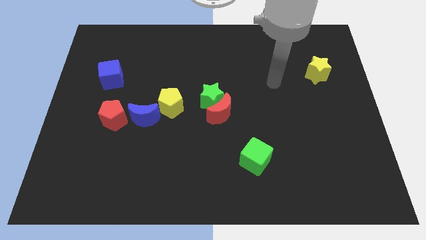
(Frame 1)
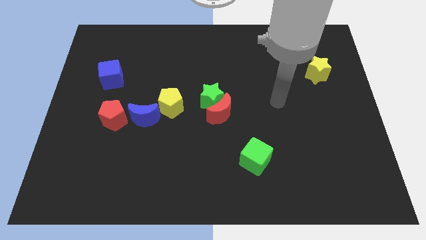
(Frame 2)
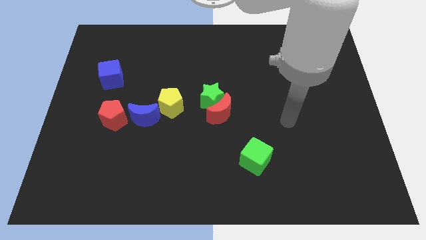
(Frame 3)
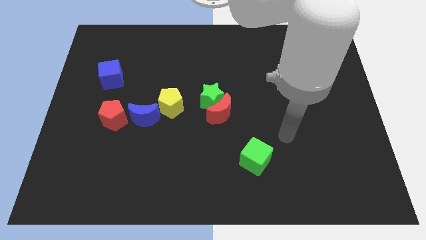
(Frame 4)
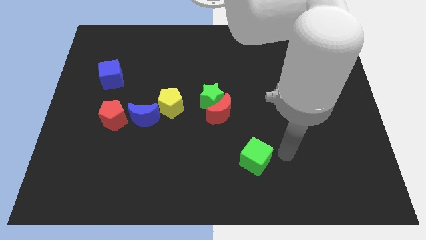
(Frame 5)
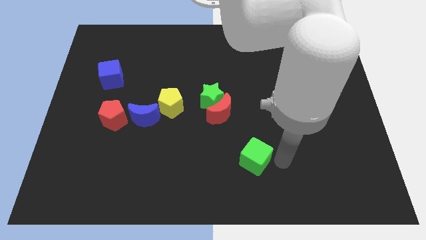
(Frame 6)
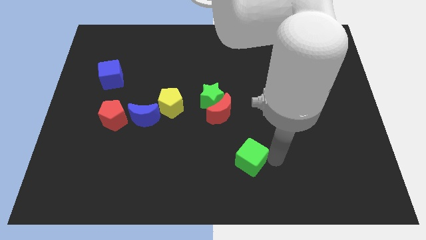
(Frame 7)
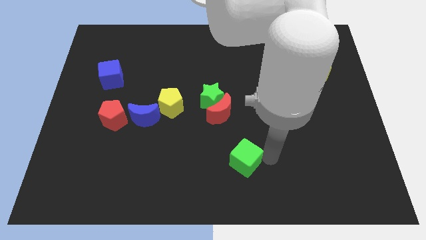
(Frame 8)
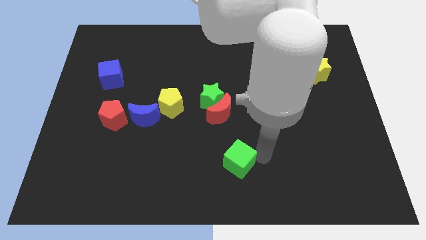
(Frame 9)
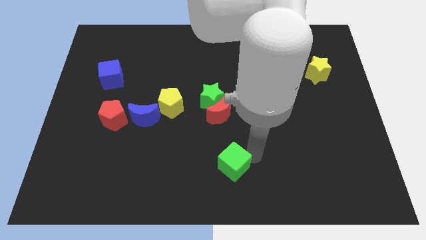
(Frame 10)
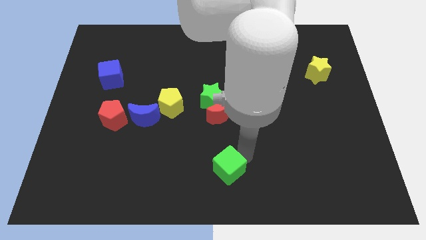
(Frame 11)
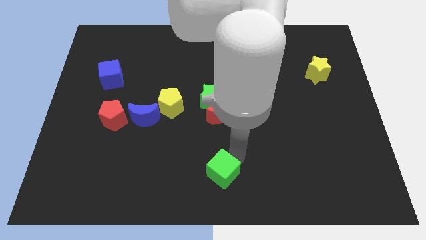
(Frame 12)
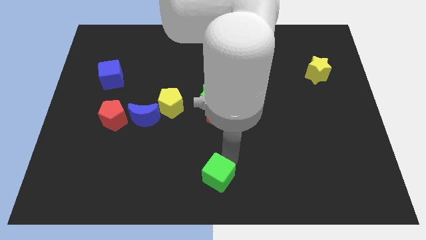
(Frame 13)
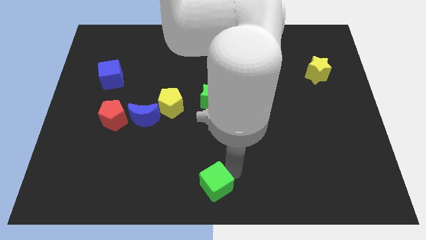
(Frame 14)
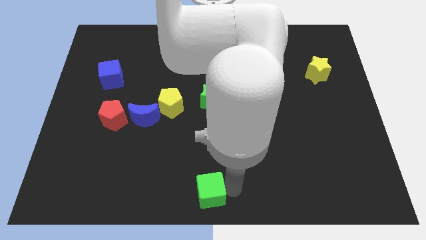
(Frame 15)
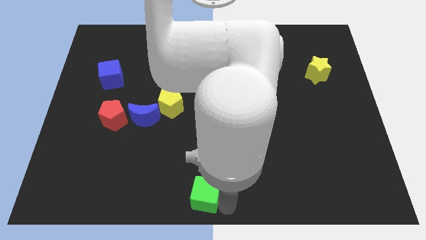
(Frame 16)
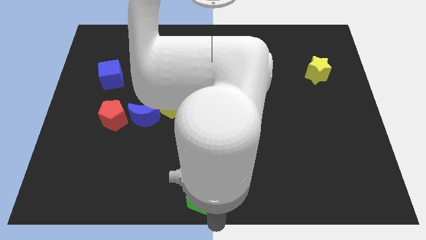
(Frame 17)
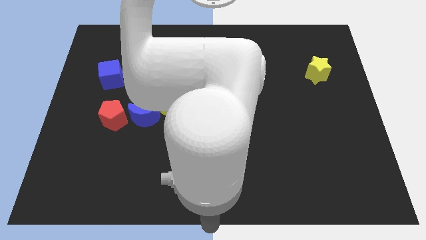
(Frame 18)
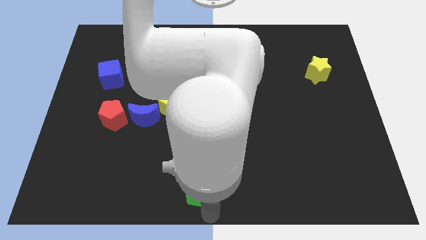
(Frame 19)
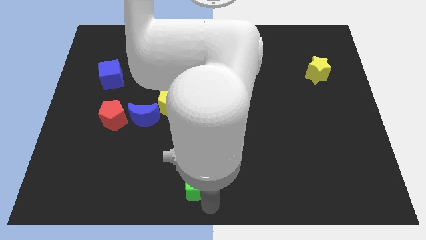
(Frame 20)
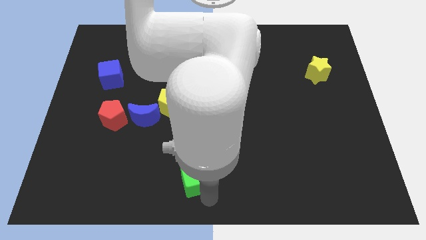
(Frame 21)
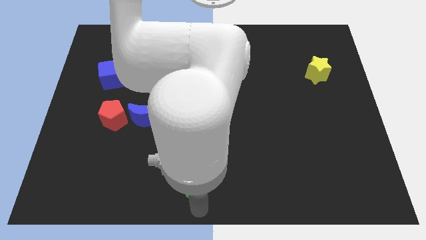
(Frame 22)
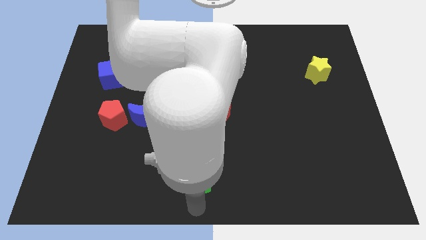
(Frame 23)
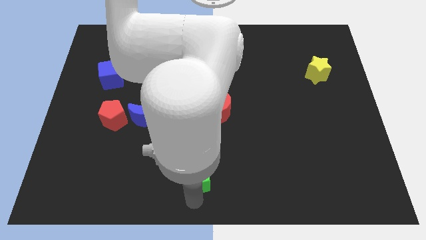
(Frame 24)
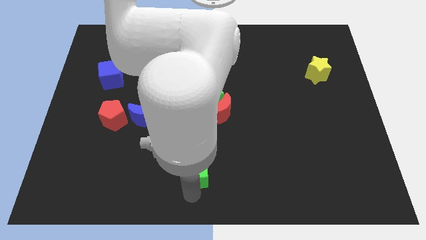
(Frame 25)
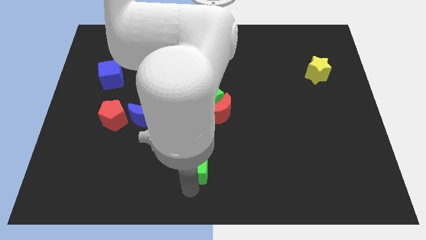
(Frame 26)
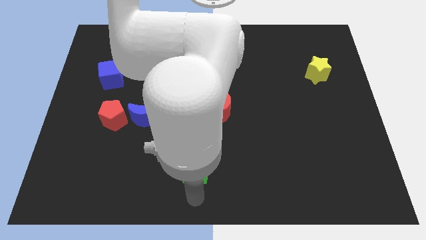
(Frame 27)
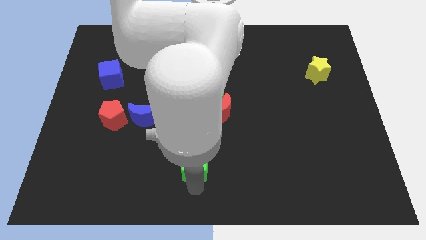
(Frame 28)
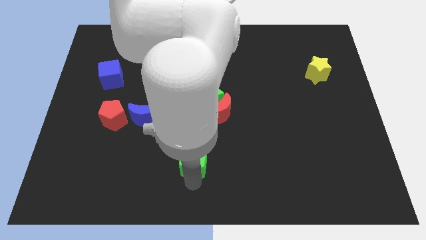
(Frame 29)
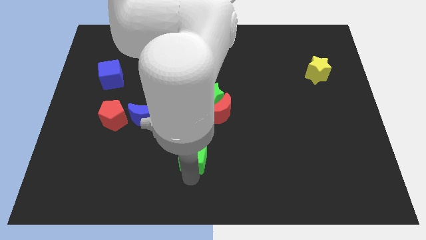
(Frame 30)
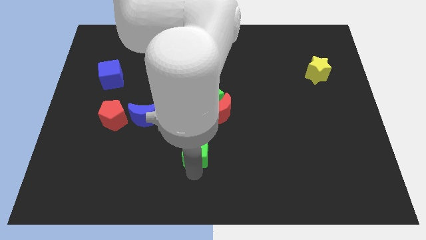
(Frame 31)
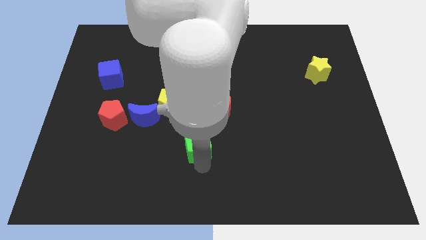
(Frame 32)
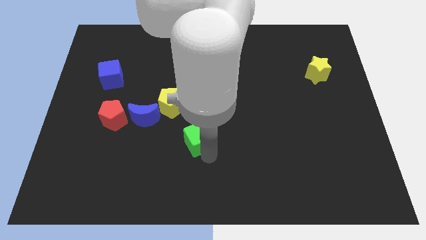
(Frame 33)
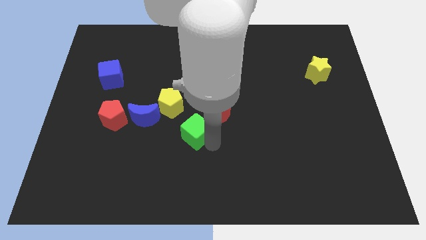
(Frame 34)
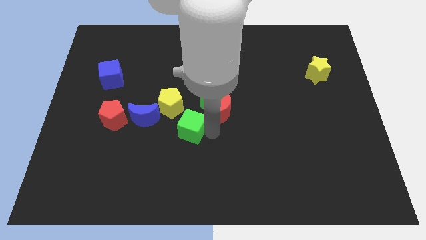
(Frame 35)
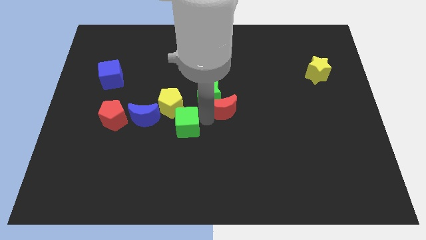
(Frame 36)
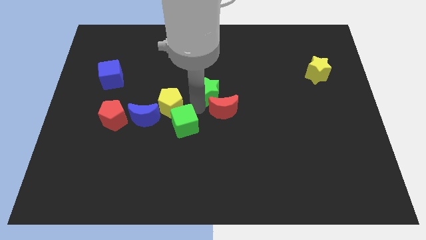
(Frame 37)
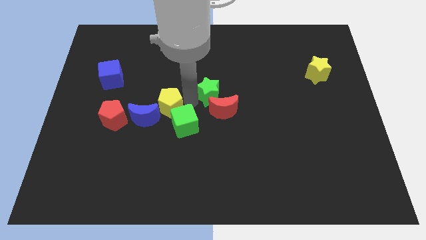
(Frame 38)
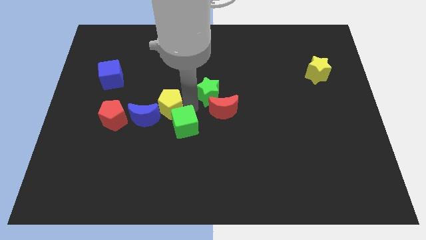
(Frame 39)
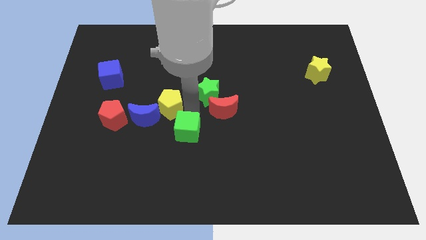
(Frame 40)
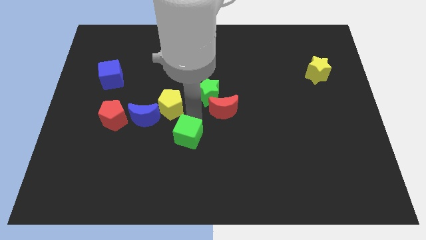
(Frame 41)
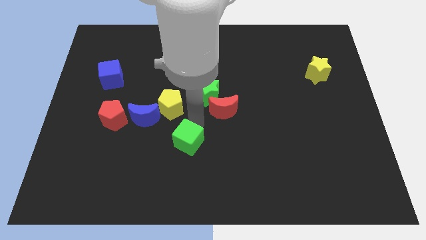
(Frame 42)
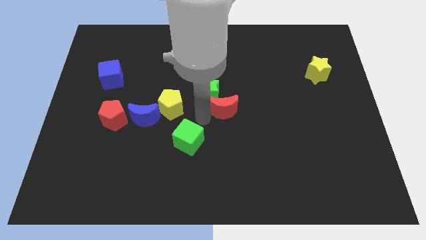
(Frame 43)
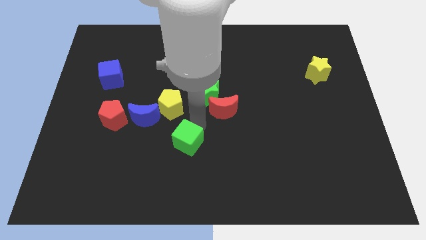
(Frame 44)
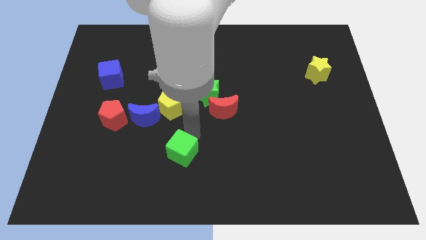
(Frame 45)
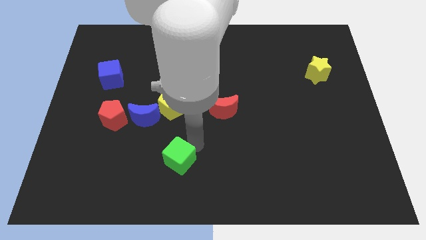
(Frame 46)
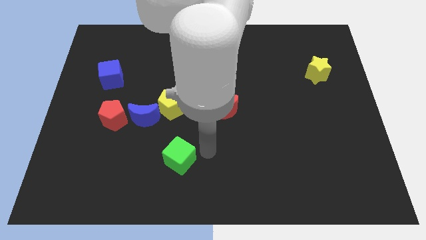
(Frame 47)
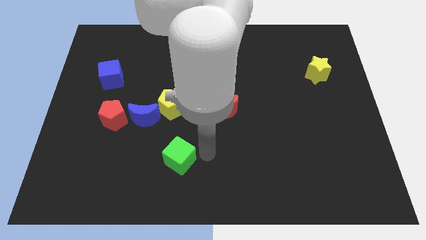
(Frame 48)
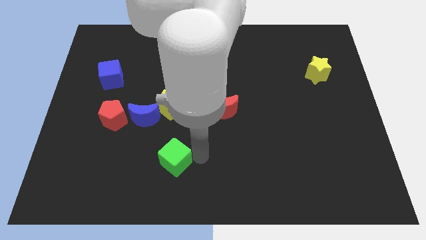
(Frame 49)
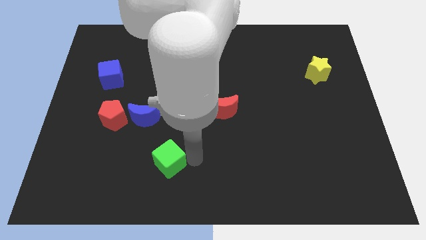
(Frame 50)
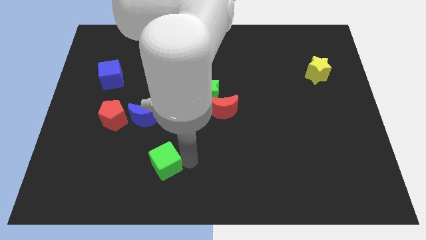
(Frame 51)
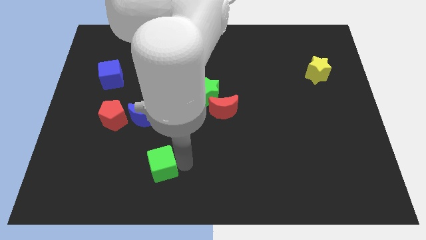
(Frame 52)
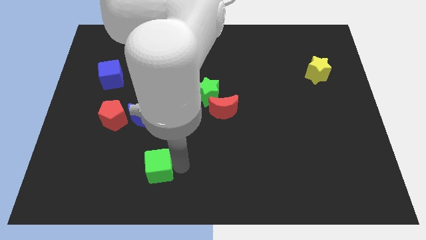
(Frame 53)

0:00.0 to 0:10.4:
move the green cube to the left

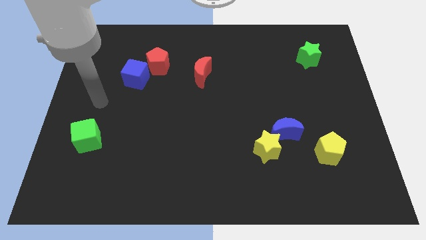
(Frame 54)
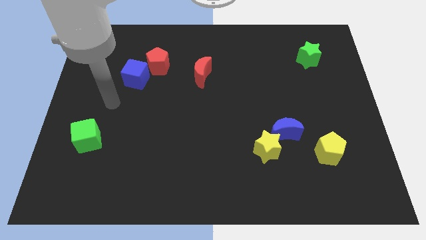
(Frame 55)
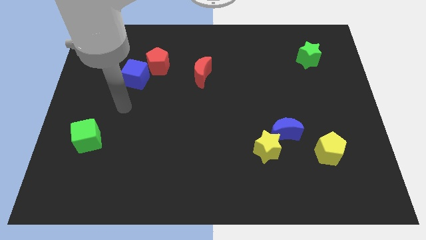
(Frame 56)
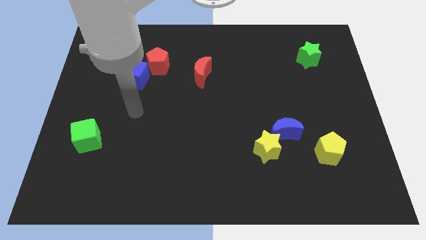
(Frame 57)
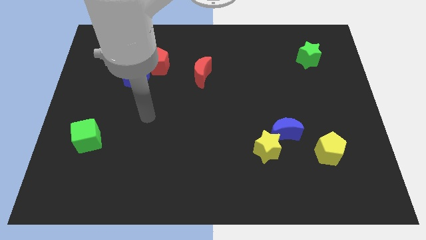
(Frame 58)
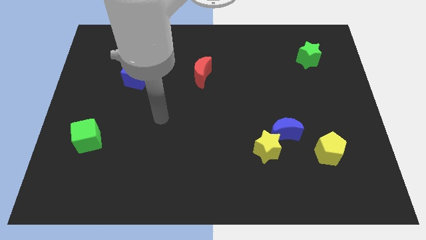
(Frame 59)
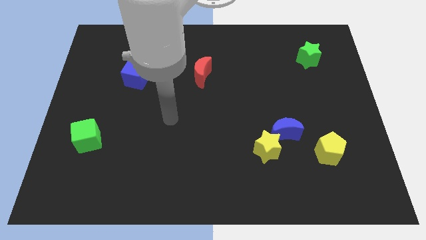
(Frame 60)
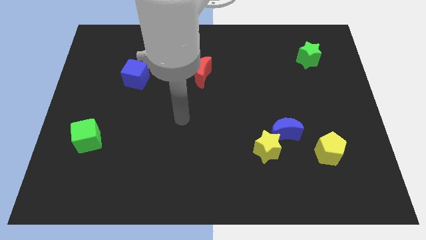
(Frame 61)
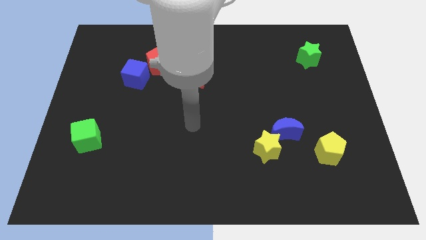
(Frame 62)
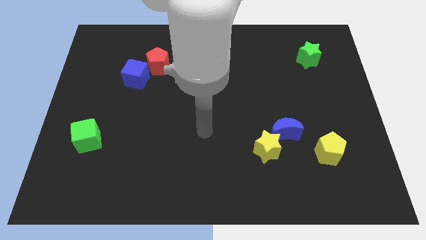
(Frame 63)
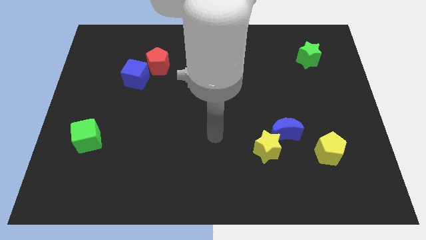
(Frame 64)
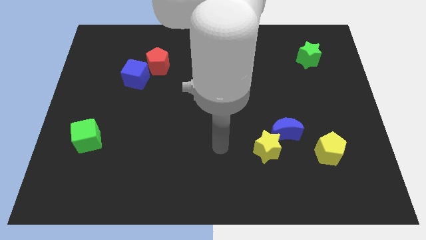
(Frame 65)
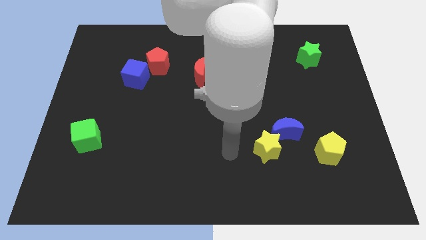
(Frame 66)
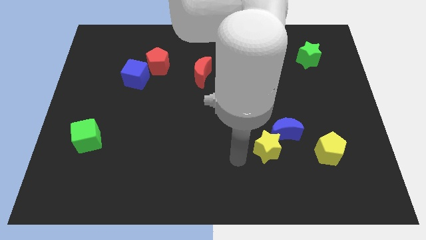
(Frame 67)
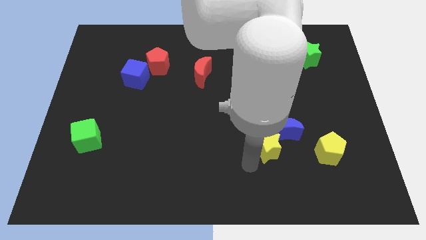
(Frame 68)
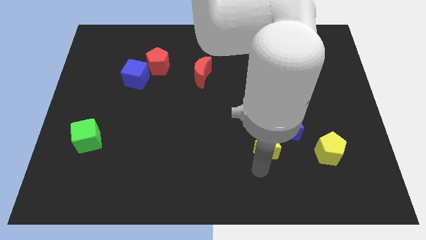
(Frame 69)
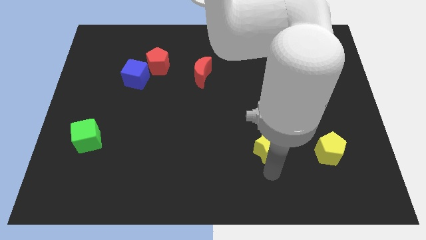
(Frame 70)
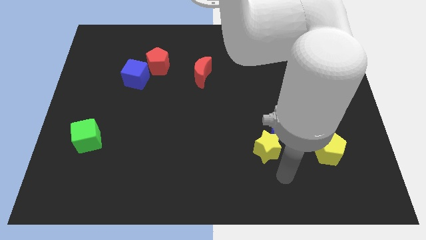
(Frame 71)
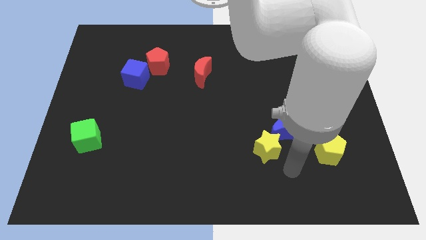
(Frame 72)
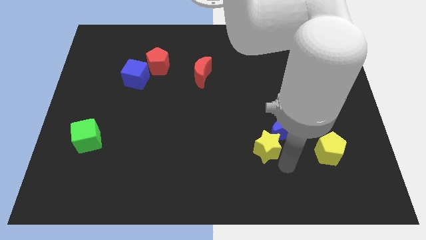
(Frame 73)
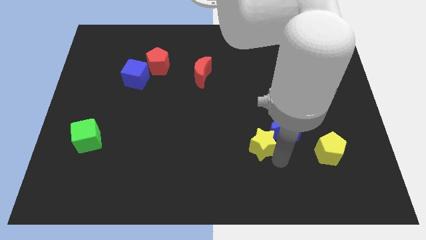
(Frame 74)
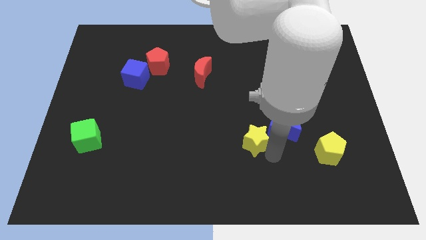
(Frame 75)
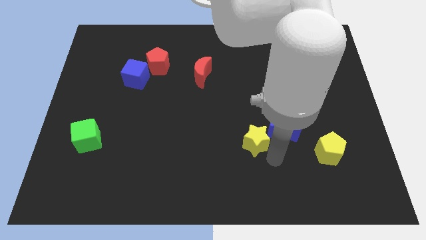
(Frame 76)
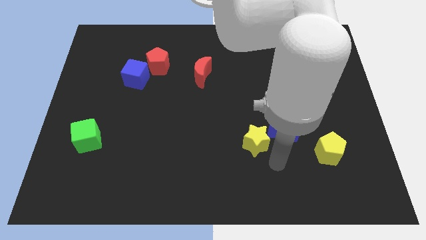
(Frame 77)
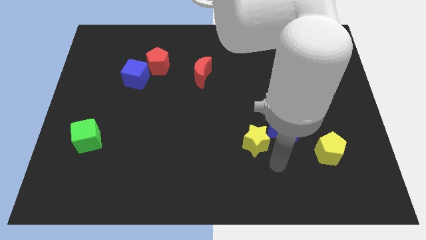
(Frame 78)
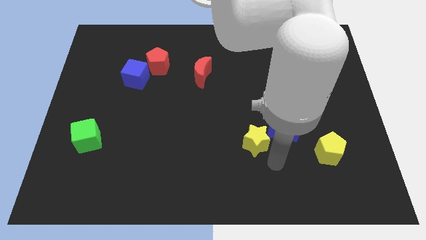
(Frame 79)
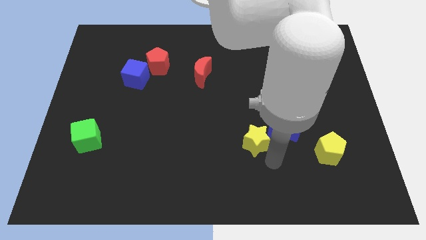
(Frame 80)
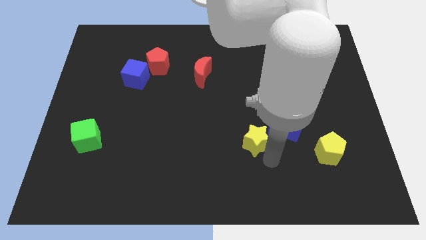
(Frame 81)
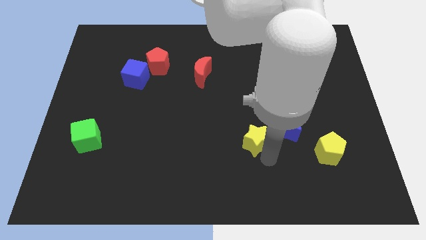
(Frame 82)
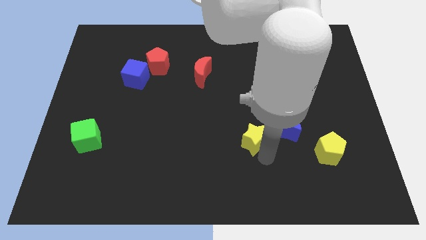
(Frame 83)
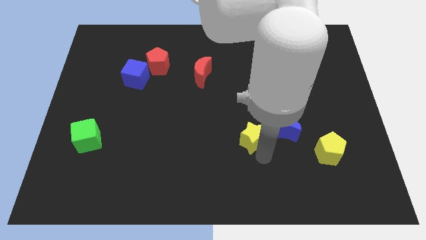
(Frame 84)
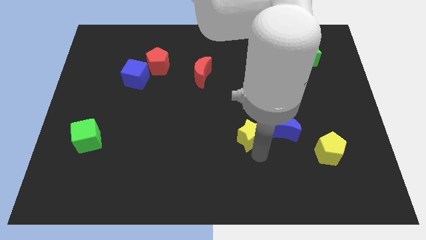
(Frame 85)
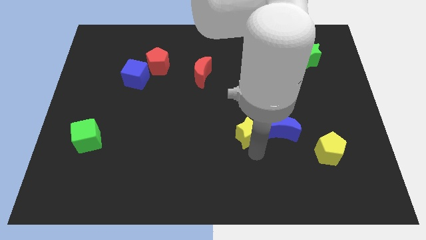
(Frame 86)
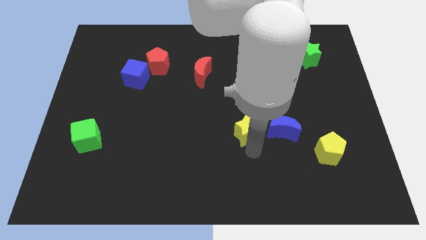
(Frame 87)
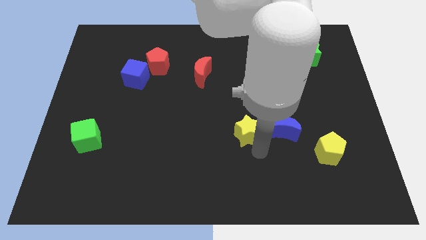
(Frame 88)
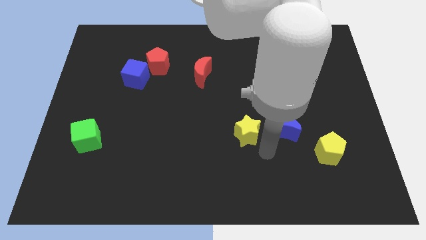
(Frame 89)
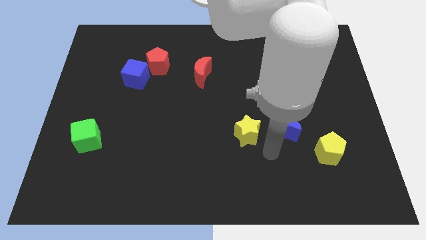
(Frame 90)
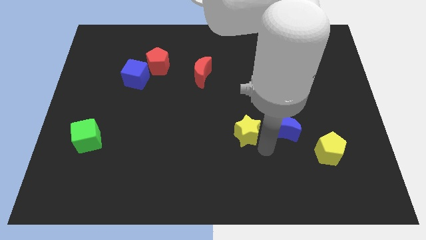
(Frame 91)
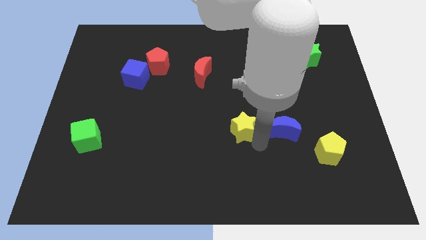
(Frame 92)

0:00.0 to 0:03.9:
slide the yellow star diagonally up and to the left somewhat
